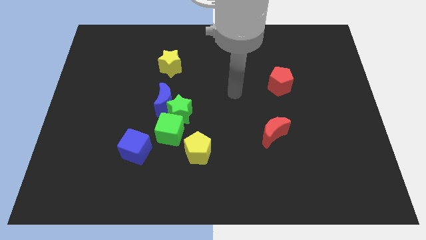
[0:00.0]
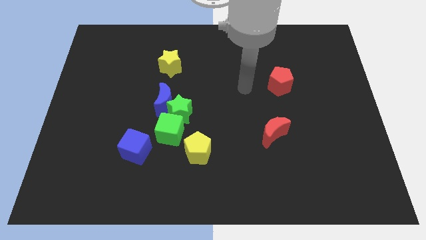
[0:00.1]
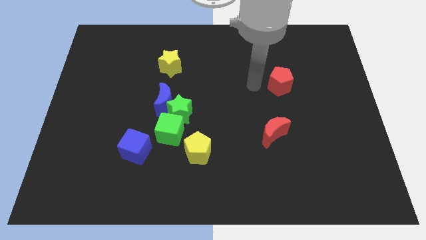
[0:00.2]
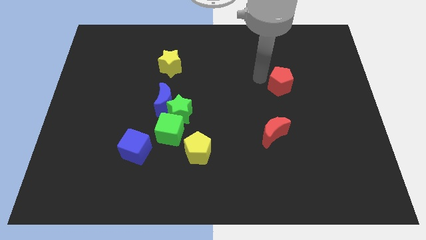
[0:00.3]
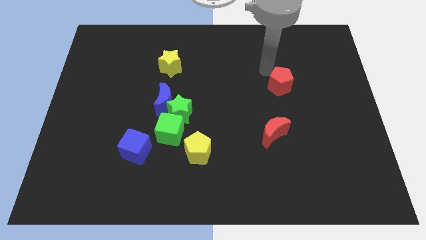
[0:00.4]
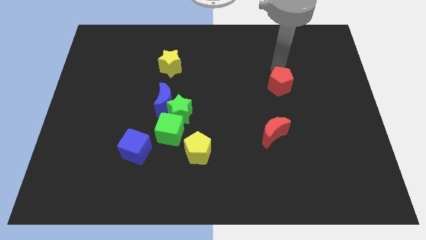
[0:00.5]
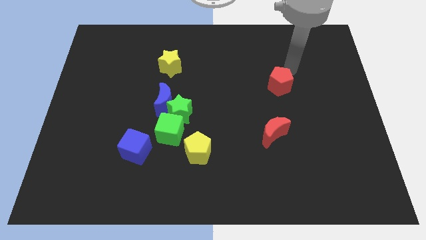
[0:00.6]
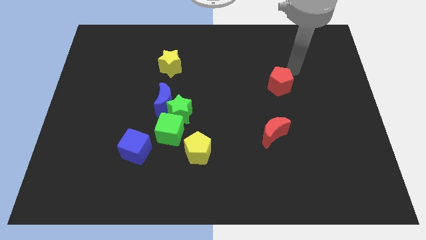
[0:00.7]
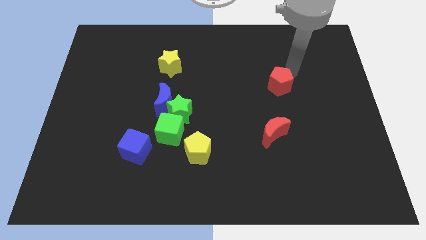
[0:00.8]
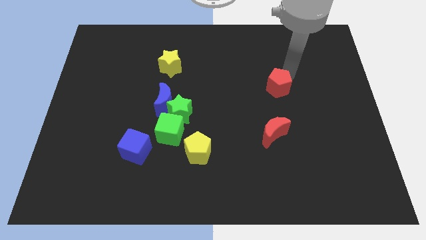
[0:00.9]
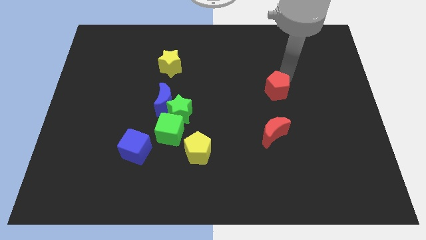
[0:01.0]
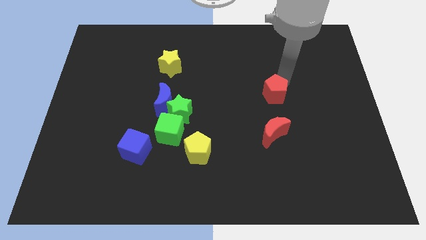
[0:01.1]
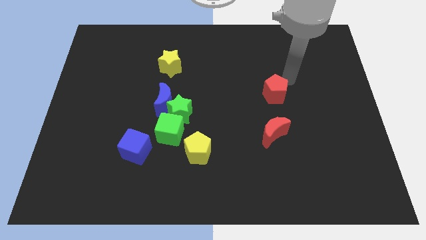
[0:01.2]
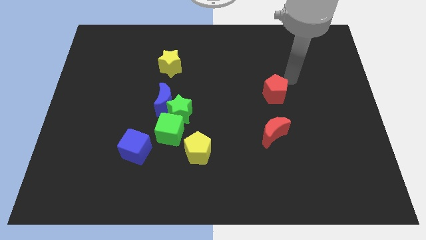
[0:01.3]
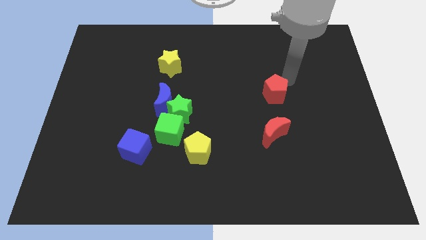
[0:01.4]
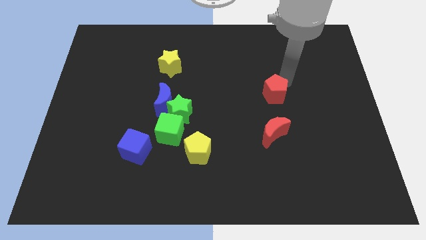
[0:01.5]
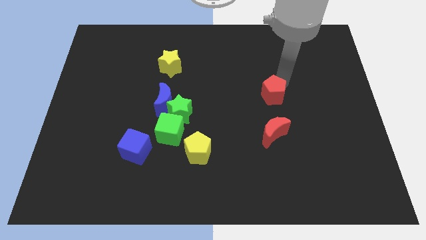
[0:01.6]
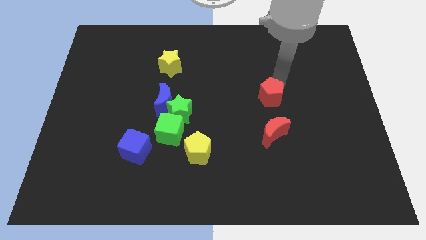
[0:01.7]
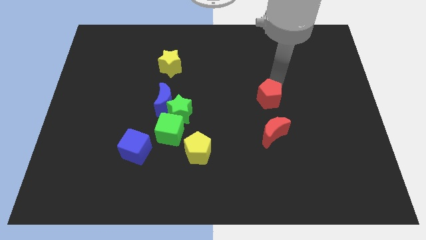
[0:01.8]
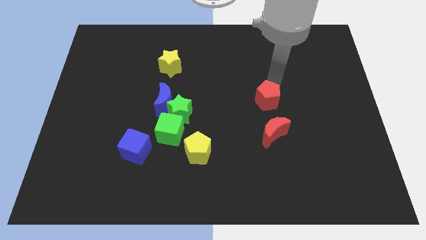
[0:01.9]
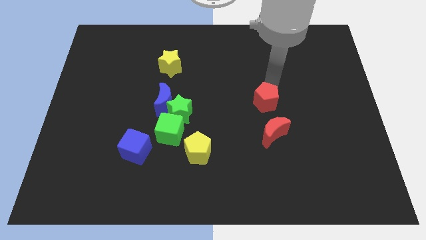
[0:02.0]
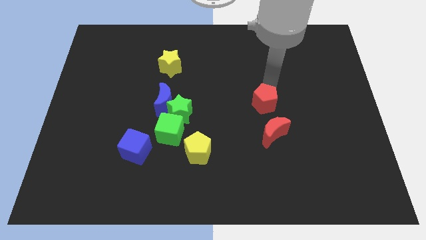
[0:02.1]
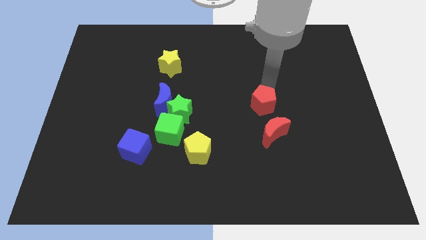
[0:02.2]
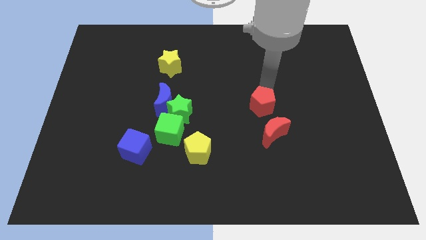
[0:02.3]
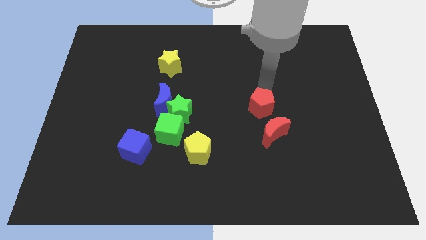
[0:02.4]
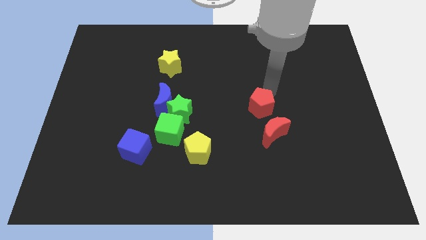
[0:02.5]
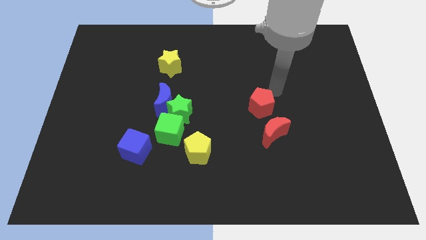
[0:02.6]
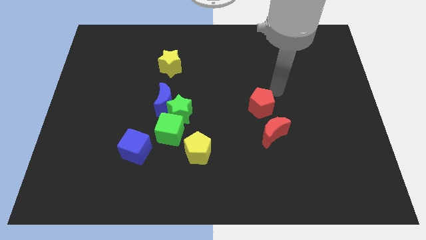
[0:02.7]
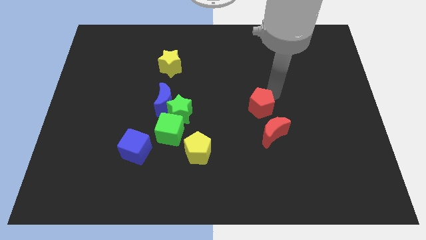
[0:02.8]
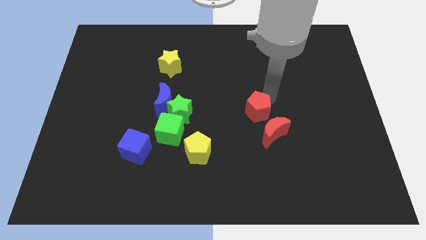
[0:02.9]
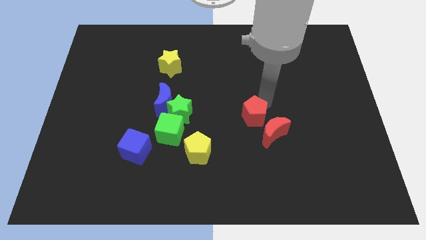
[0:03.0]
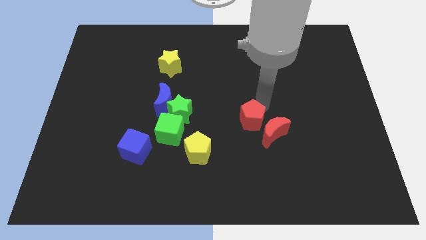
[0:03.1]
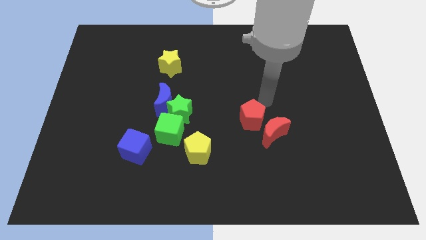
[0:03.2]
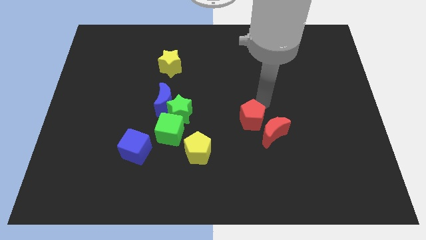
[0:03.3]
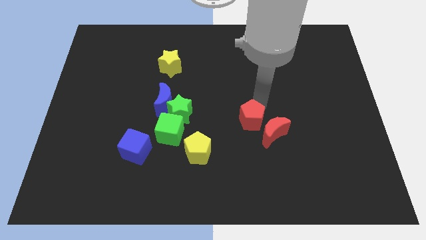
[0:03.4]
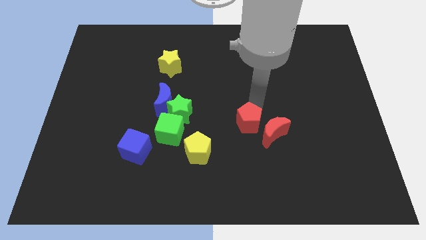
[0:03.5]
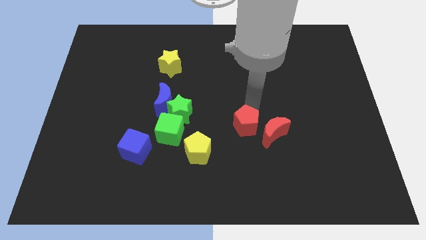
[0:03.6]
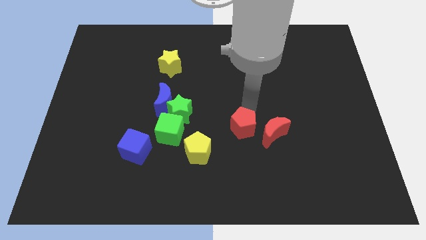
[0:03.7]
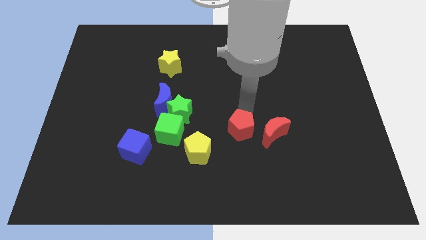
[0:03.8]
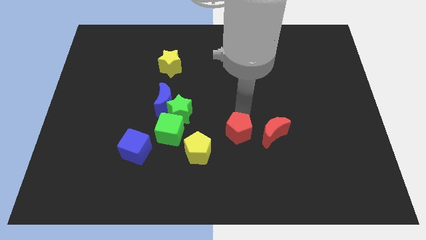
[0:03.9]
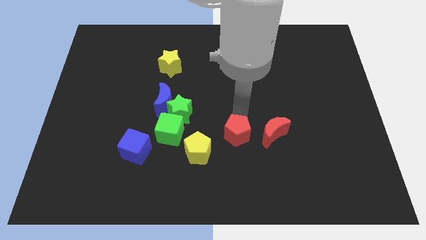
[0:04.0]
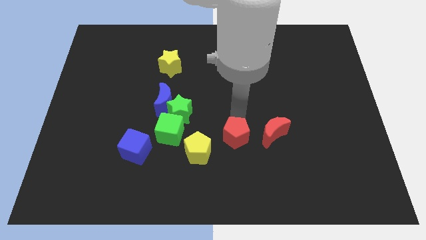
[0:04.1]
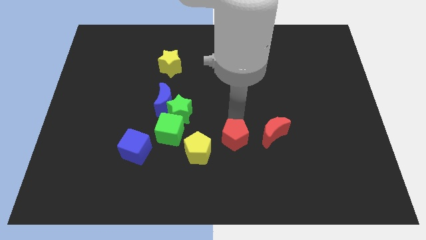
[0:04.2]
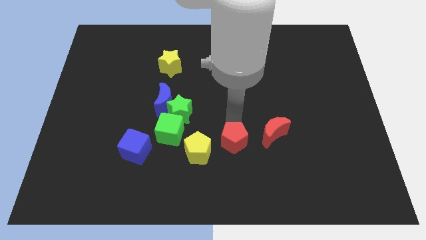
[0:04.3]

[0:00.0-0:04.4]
push the red pentagon down and to the left diagonally

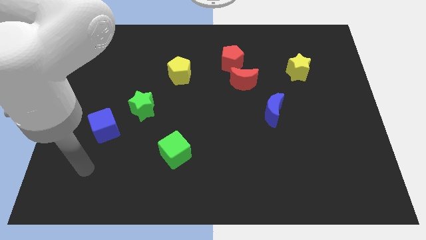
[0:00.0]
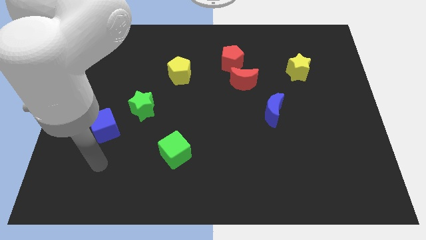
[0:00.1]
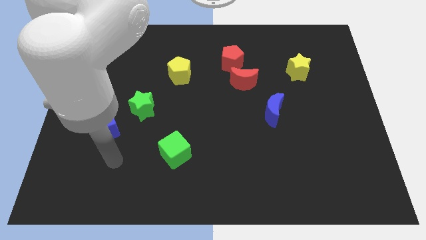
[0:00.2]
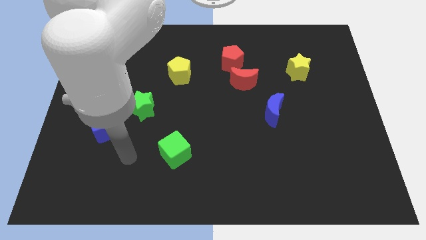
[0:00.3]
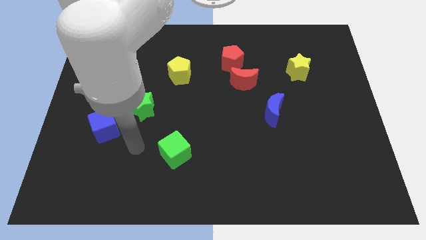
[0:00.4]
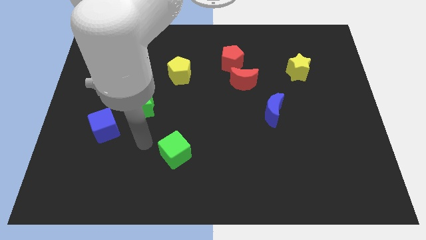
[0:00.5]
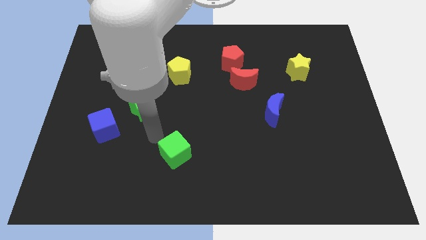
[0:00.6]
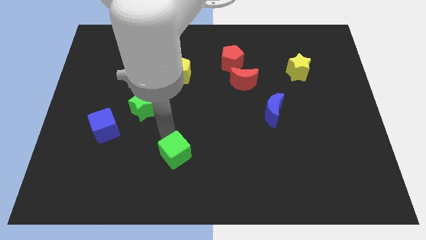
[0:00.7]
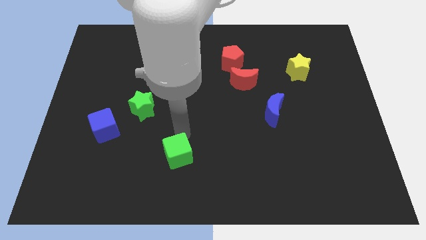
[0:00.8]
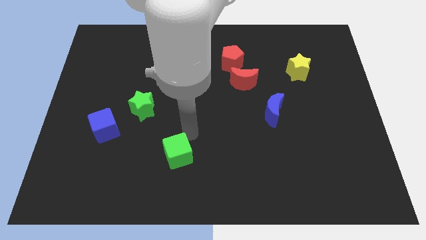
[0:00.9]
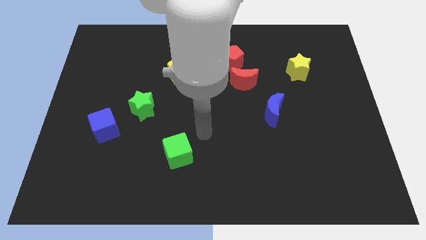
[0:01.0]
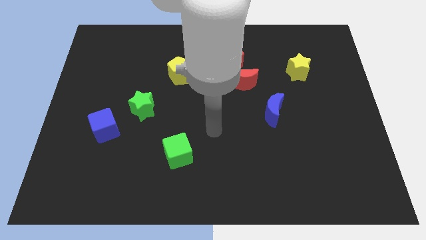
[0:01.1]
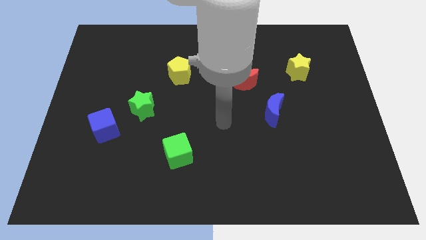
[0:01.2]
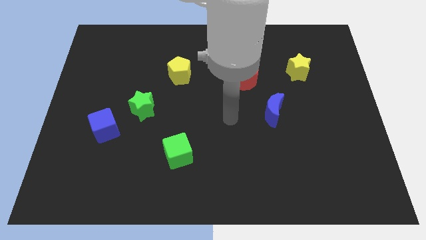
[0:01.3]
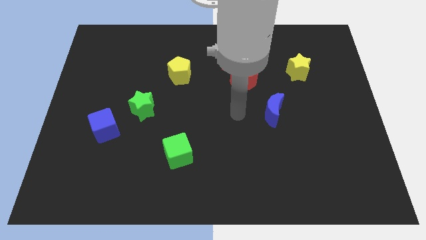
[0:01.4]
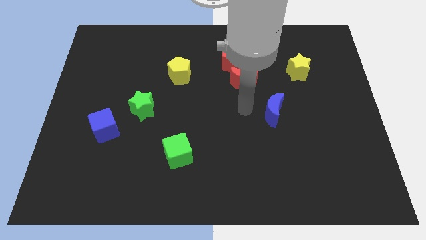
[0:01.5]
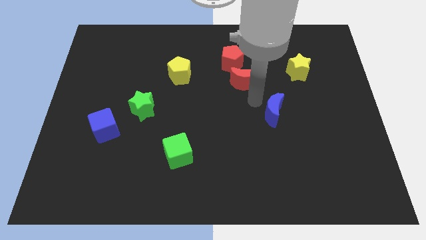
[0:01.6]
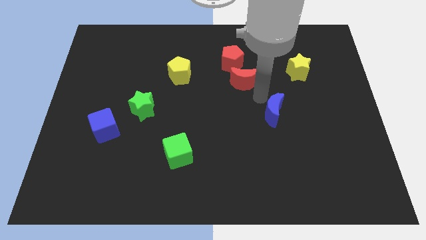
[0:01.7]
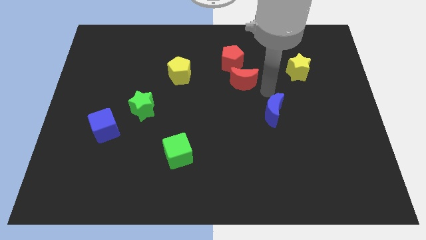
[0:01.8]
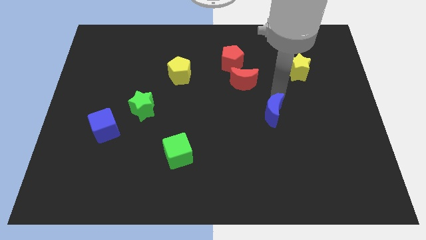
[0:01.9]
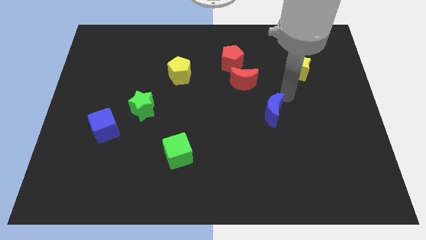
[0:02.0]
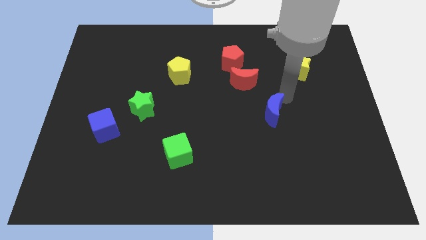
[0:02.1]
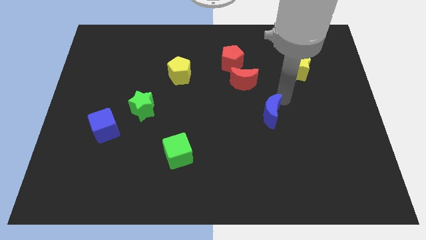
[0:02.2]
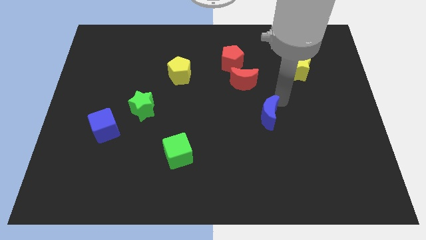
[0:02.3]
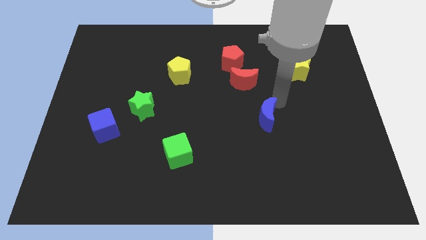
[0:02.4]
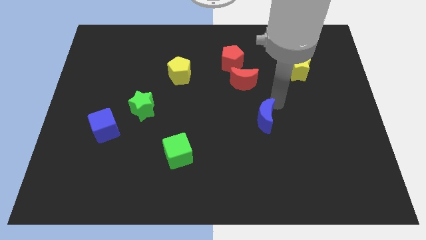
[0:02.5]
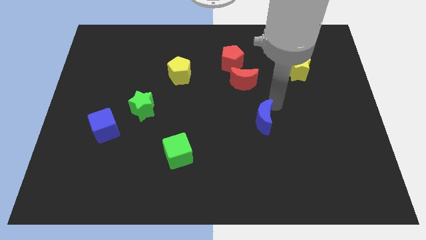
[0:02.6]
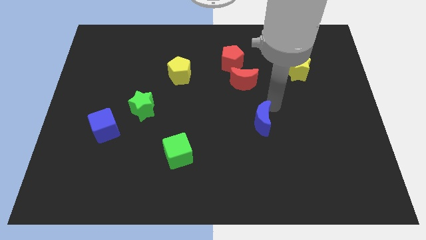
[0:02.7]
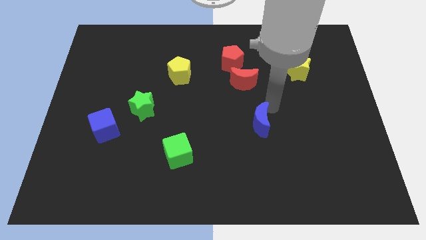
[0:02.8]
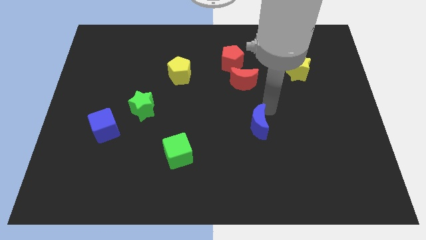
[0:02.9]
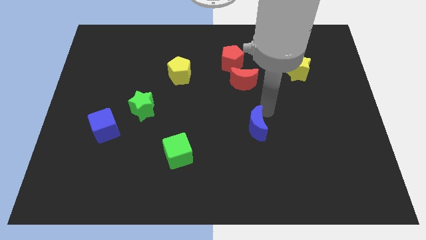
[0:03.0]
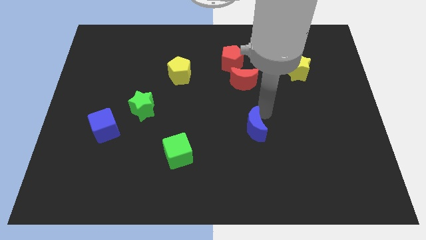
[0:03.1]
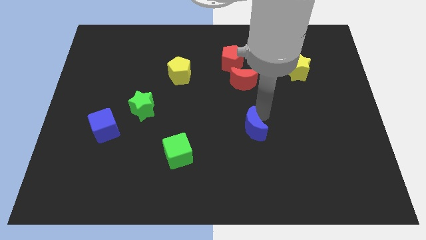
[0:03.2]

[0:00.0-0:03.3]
slightly push the blue moon down and to the left diagonally

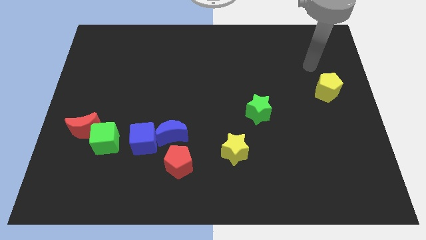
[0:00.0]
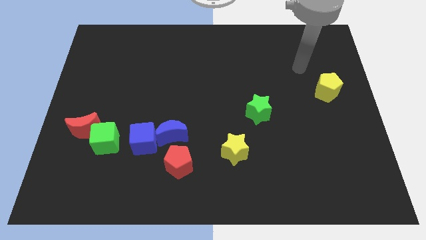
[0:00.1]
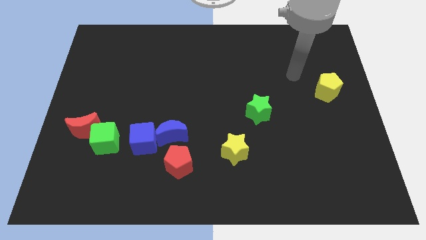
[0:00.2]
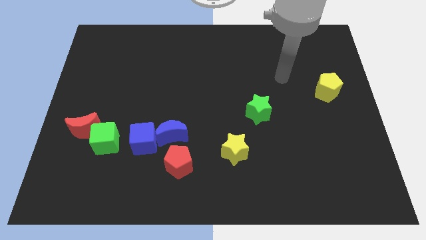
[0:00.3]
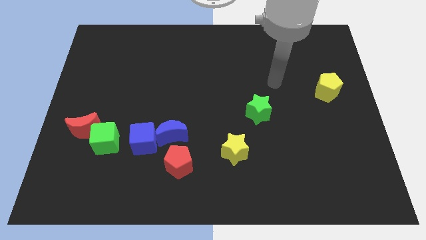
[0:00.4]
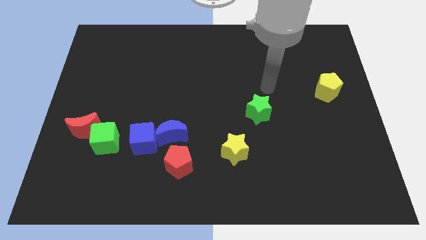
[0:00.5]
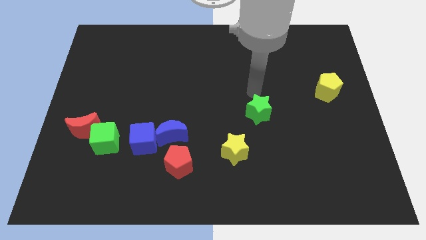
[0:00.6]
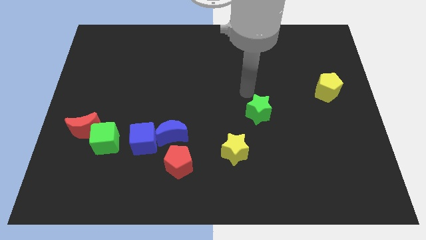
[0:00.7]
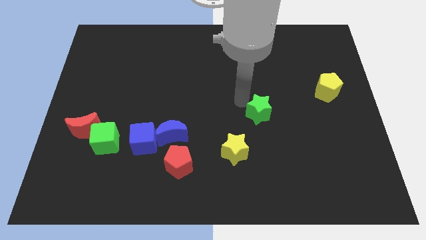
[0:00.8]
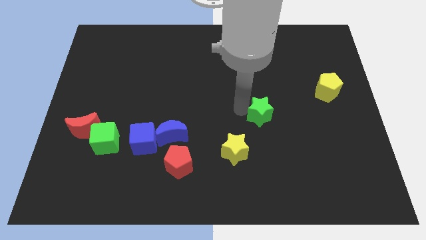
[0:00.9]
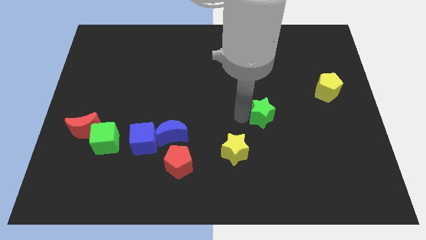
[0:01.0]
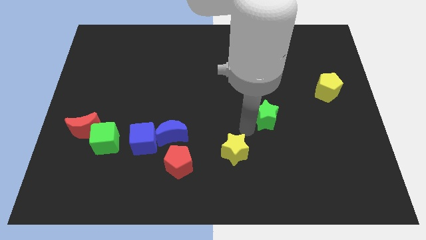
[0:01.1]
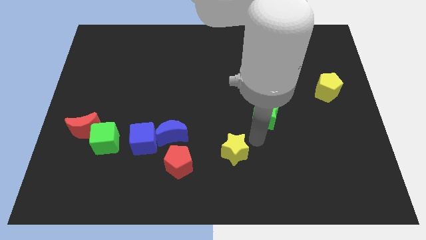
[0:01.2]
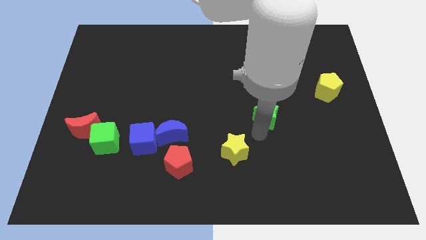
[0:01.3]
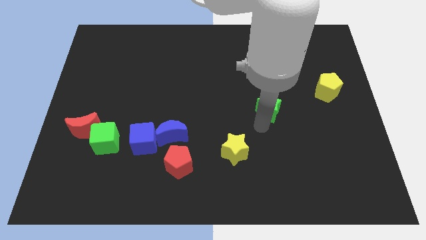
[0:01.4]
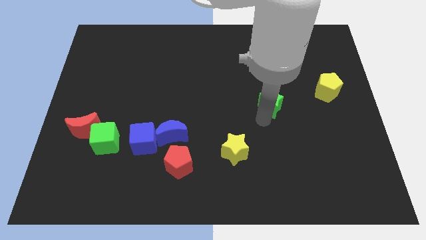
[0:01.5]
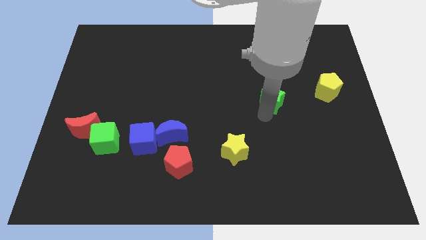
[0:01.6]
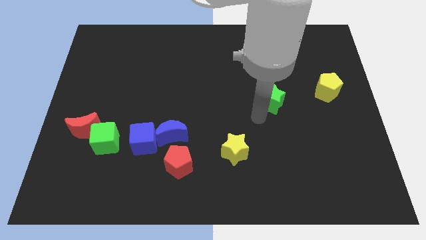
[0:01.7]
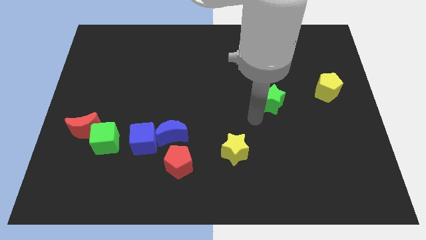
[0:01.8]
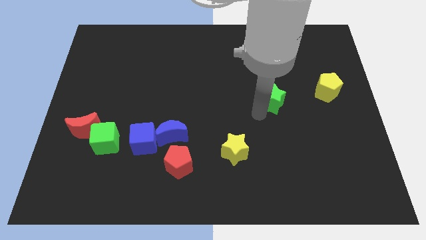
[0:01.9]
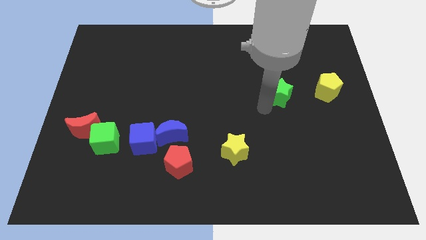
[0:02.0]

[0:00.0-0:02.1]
push the green star a little bit diagonally upwards and right
